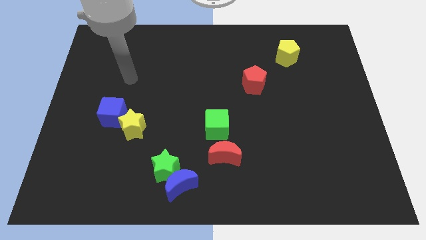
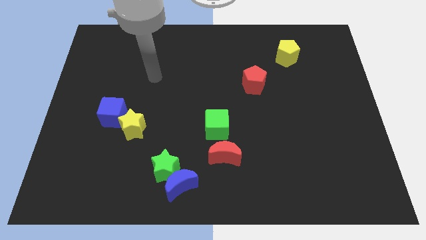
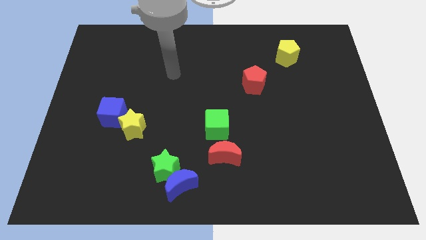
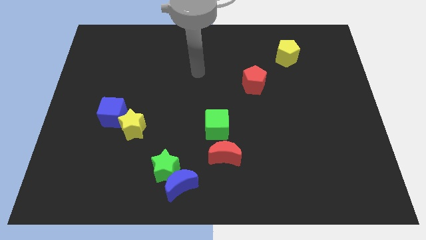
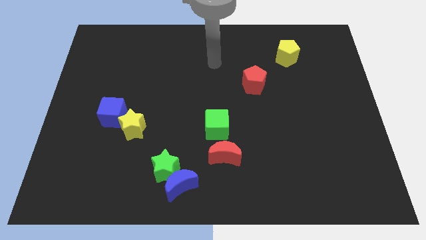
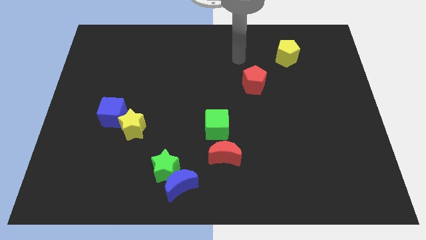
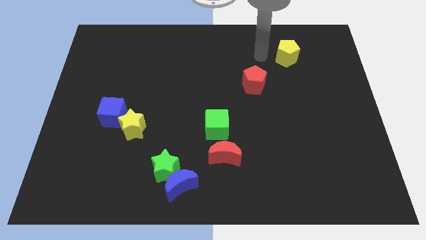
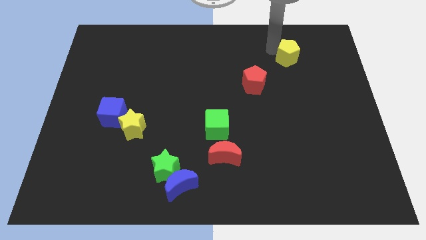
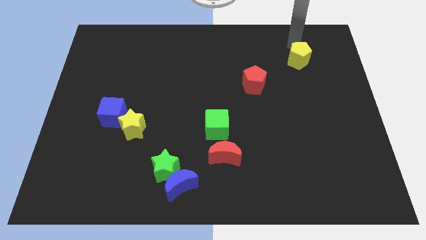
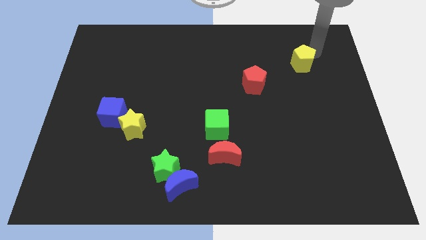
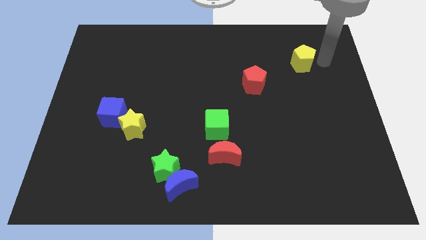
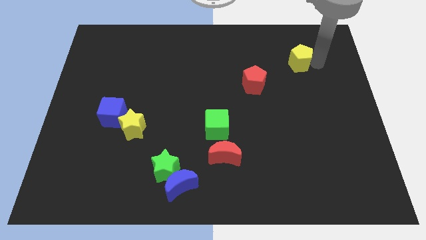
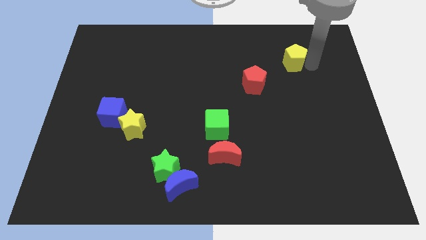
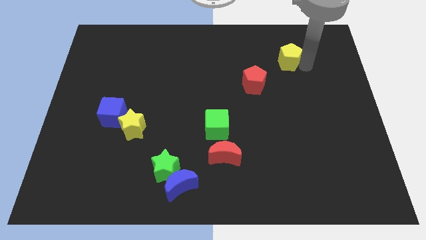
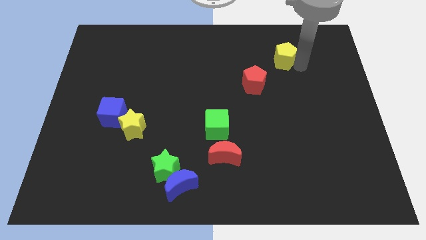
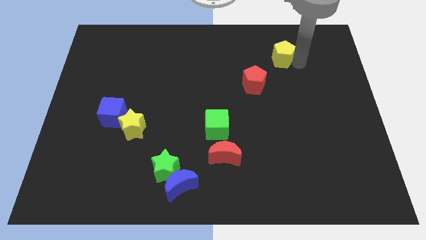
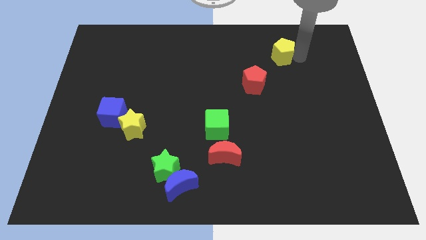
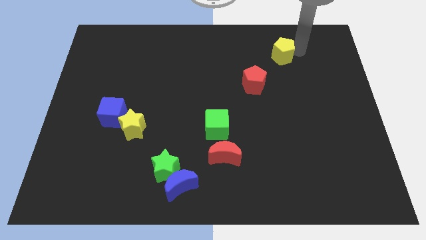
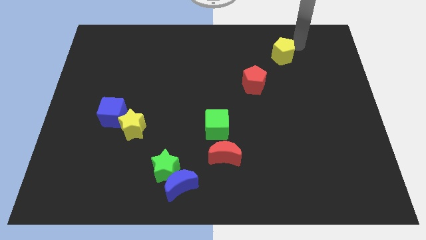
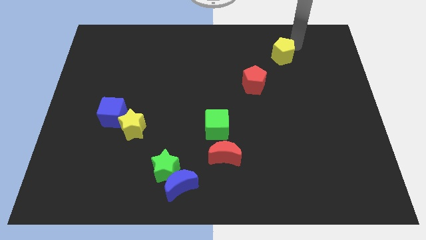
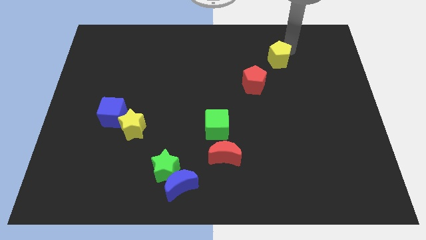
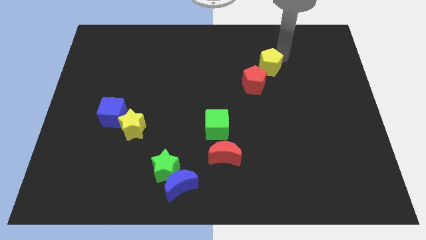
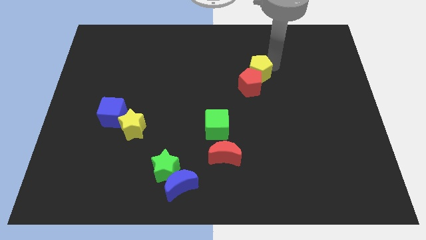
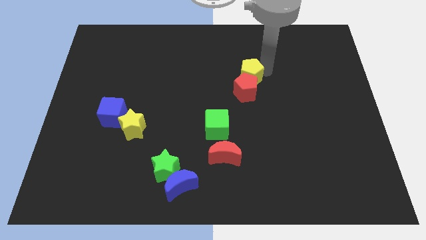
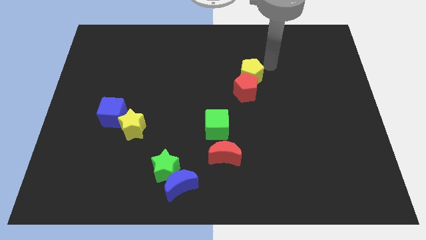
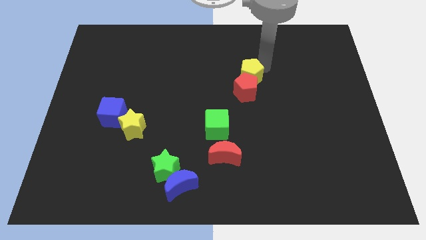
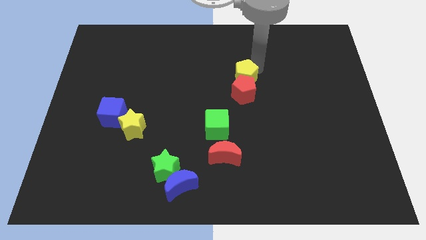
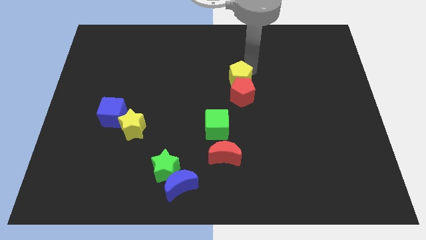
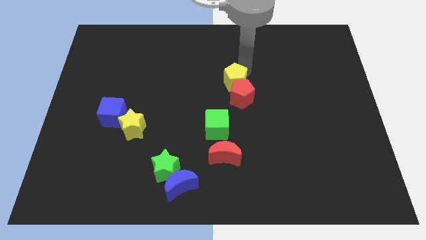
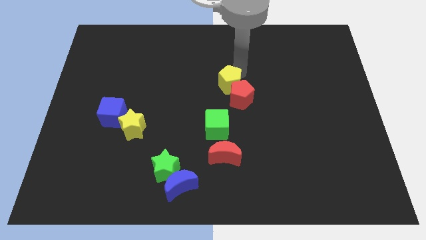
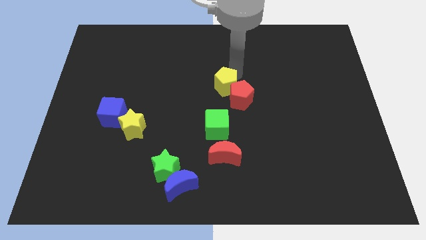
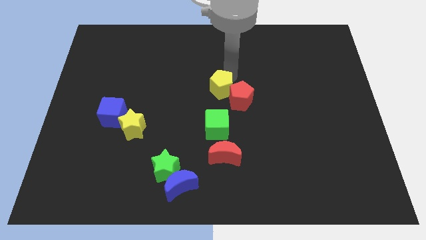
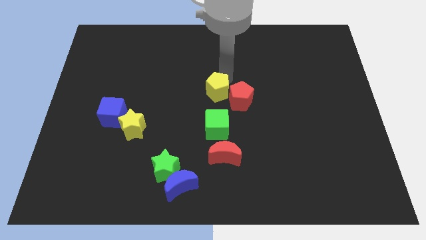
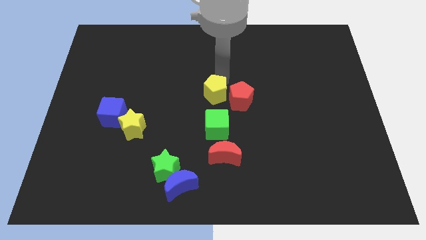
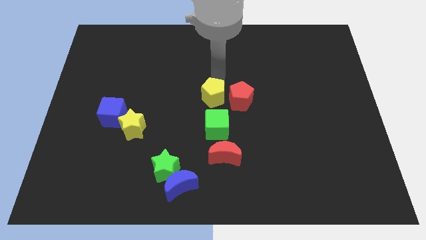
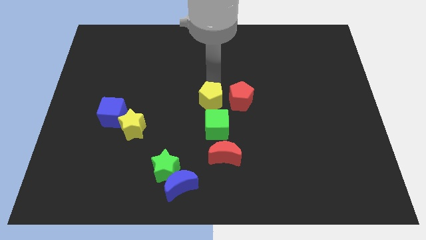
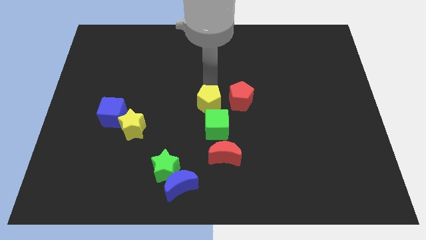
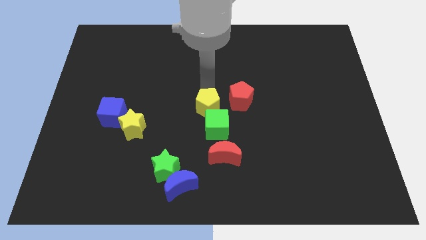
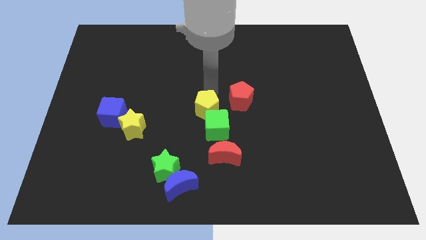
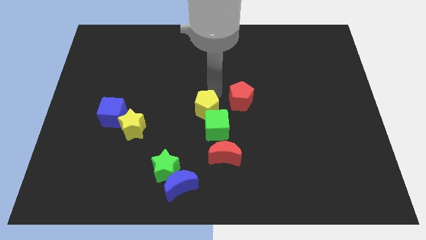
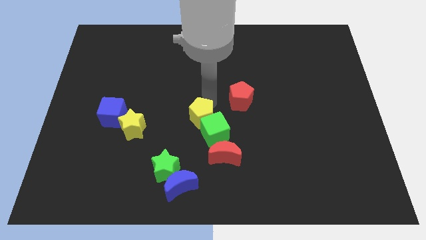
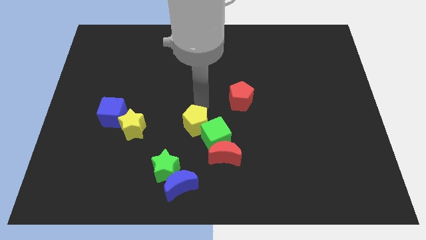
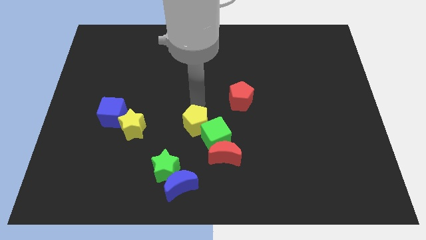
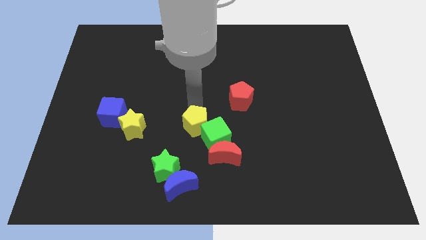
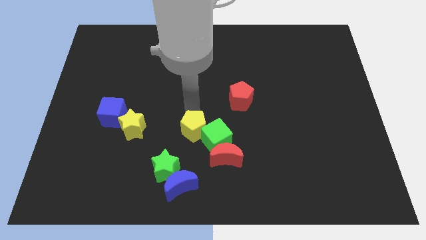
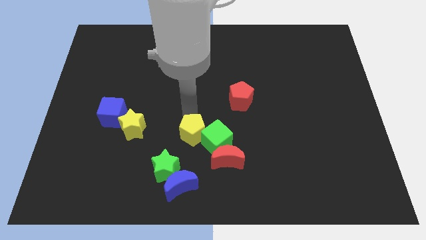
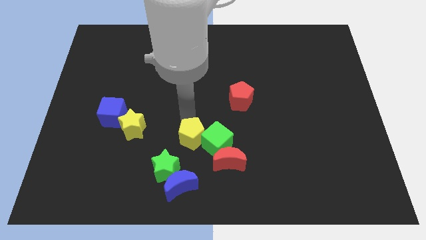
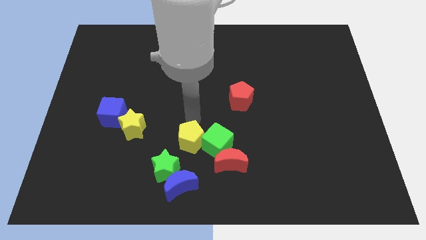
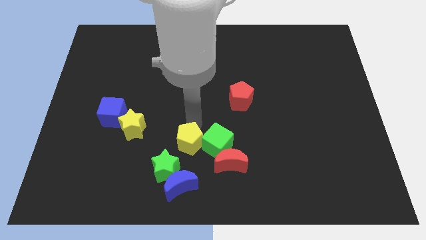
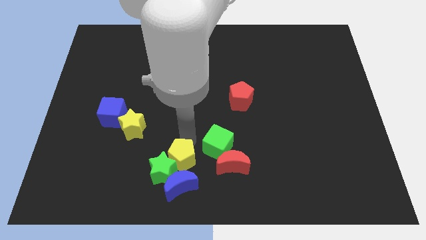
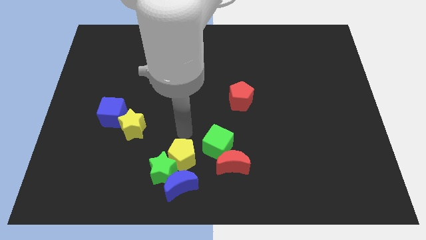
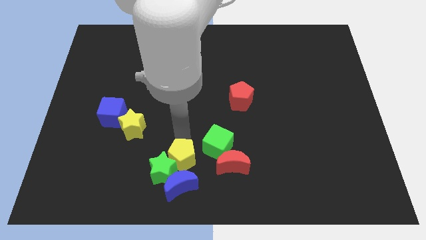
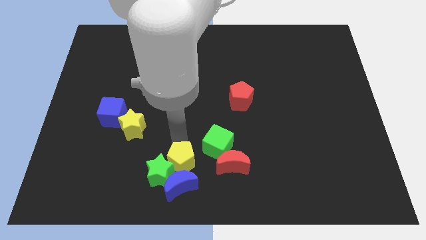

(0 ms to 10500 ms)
move the yellow pentagon to the blue moon

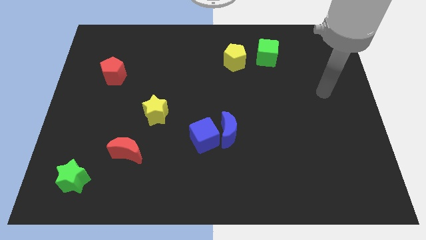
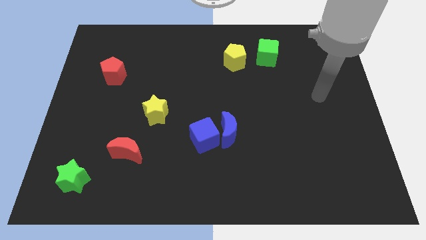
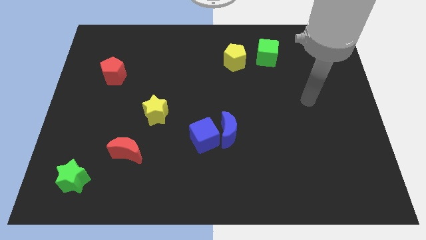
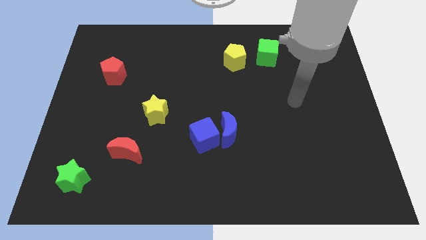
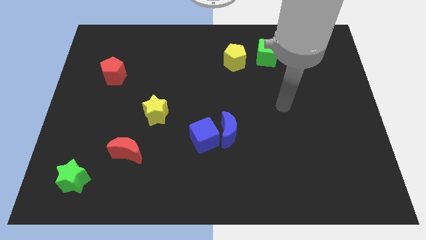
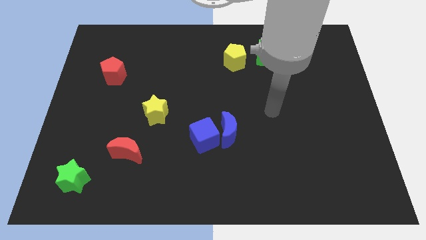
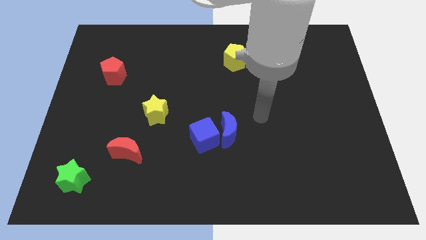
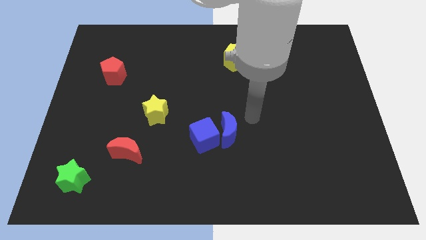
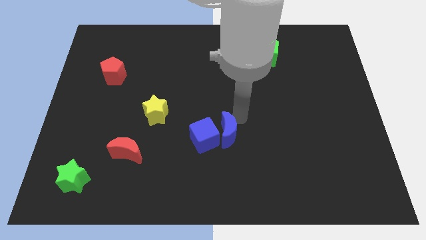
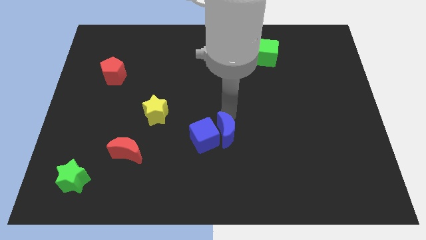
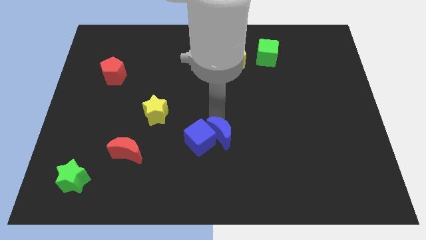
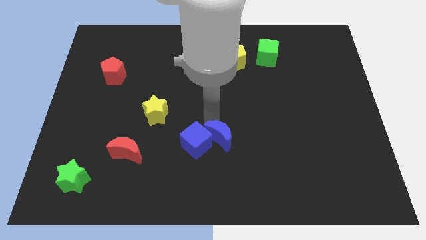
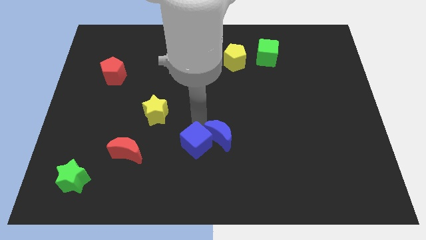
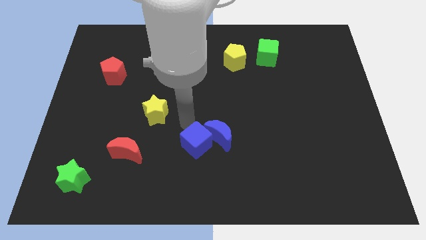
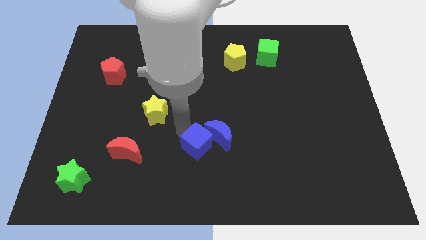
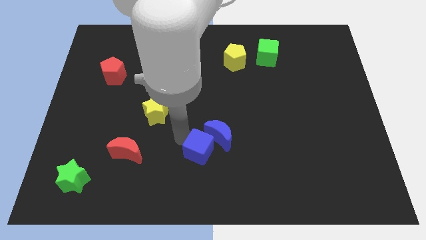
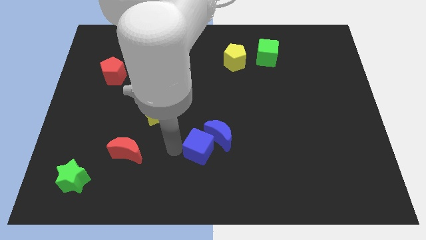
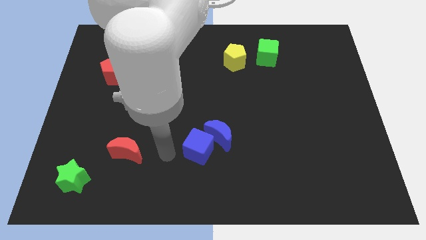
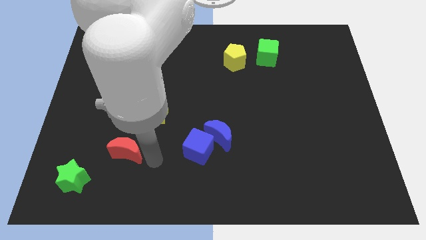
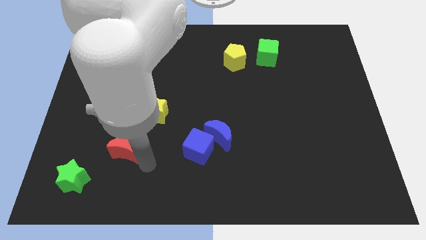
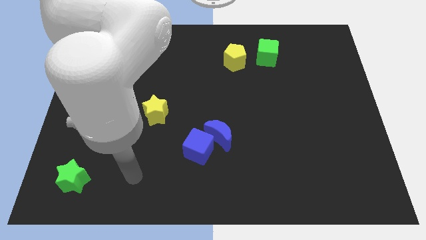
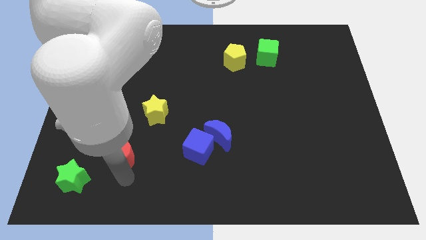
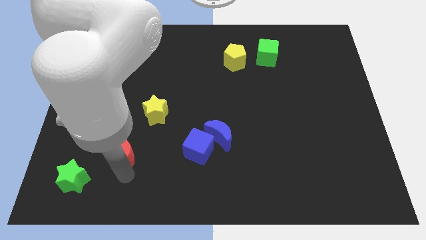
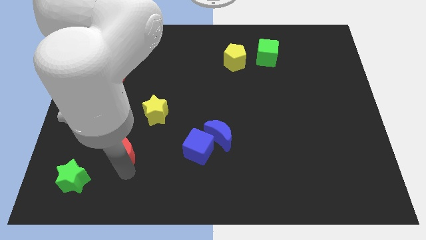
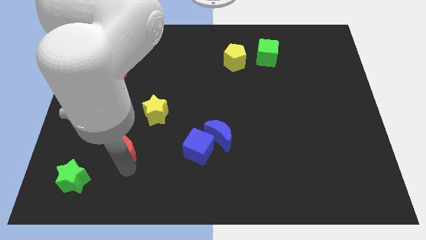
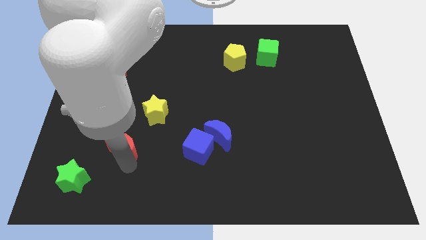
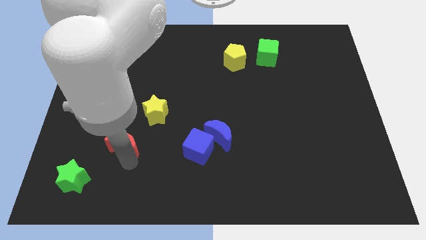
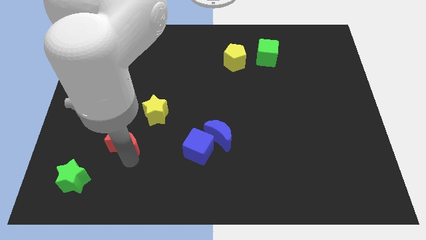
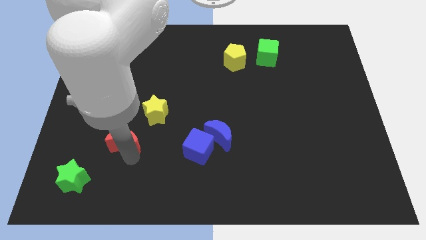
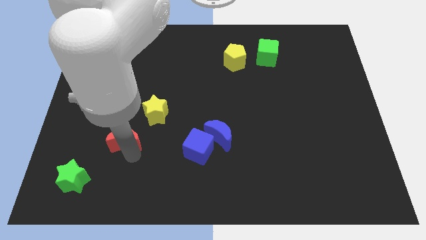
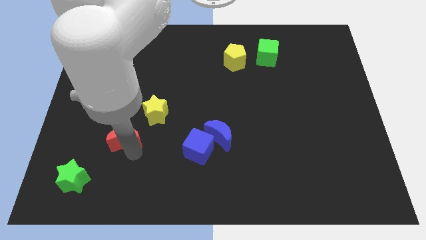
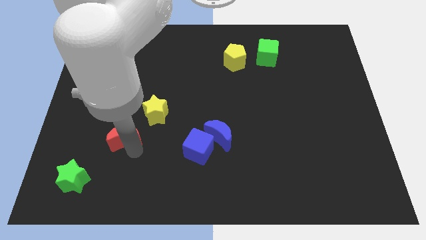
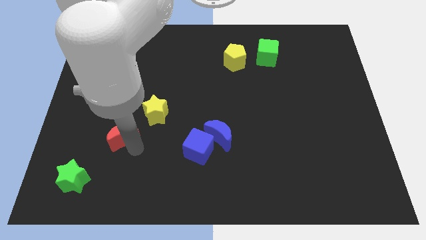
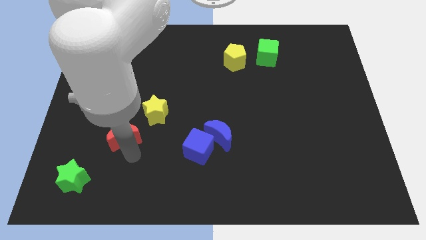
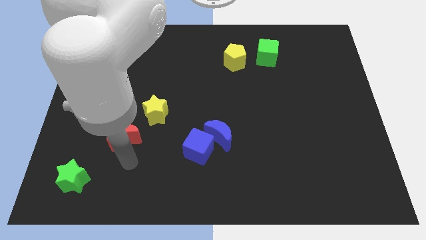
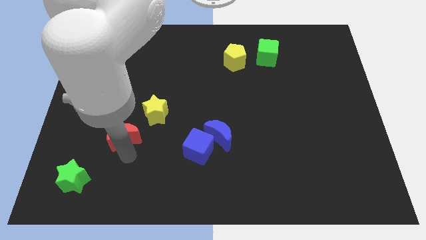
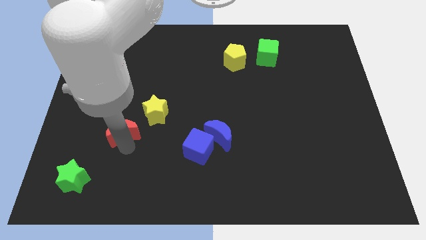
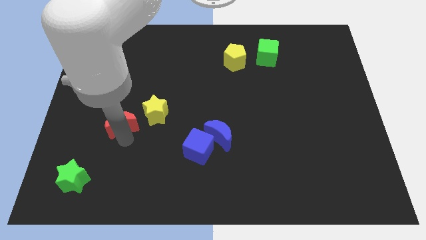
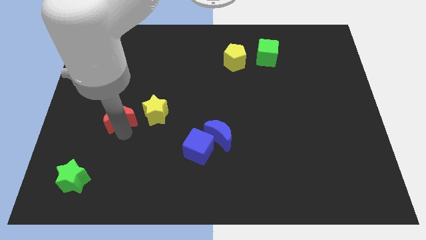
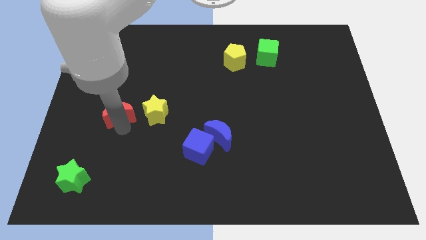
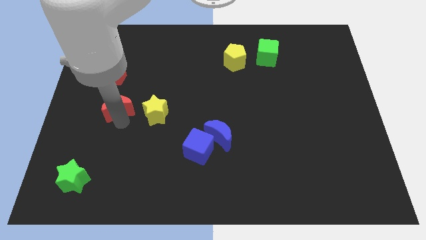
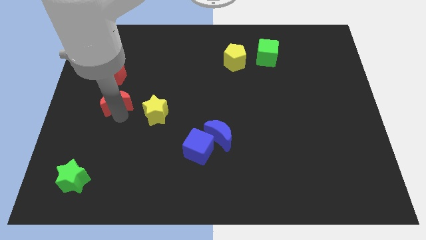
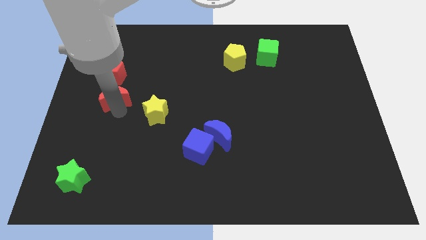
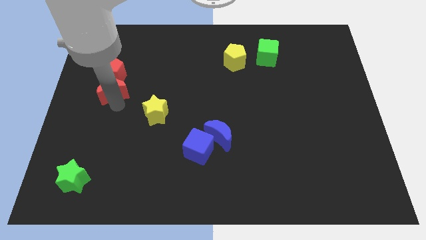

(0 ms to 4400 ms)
put the red moon towards the red pentagon
